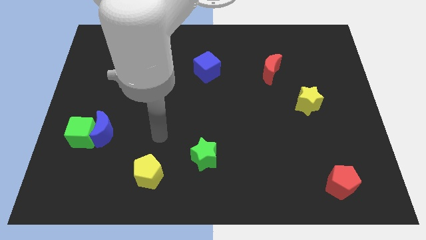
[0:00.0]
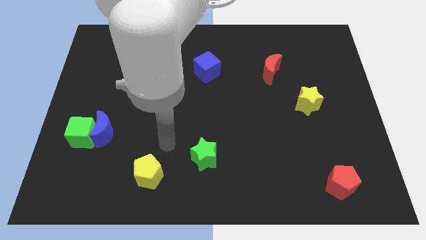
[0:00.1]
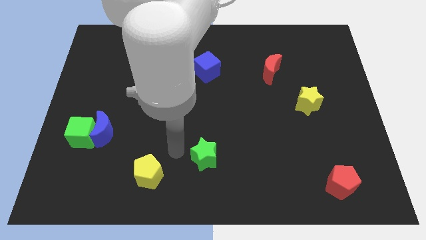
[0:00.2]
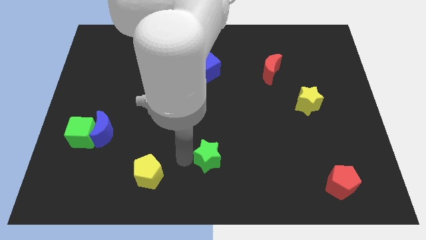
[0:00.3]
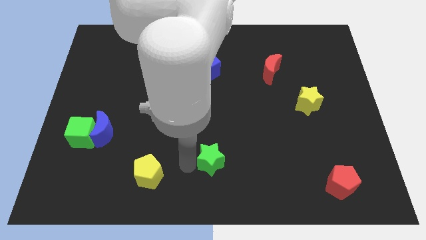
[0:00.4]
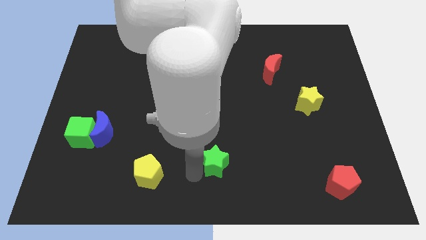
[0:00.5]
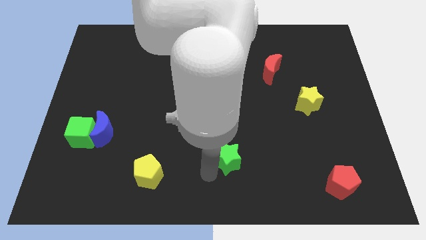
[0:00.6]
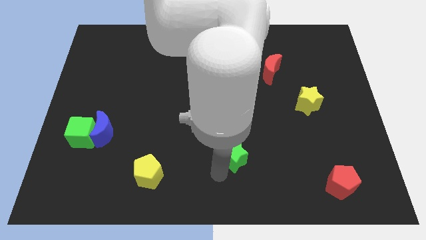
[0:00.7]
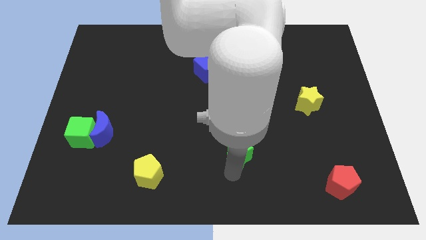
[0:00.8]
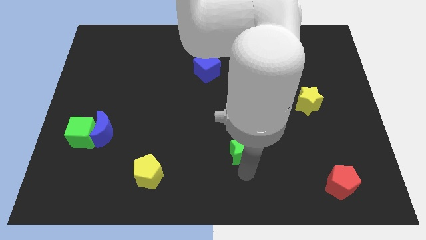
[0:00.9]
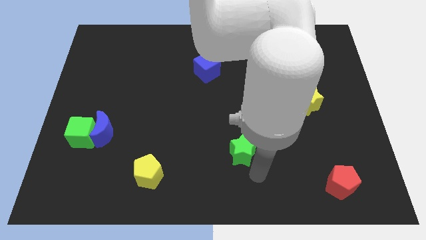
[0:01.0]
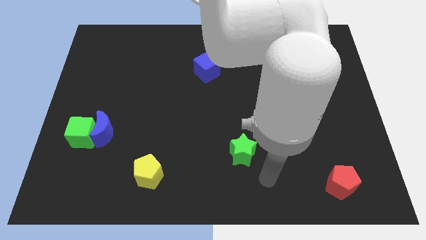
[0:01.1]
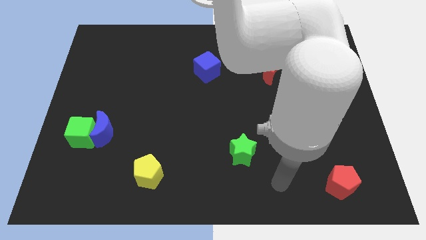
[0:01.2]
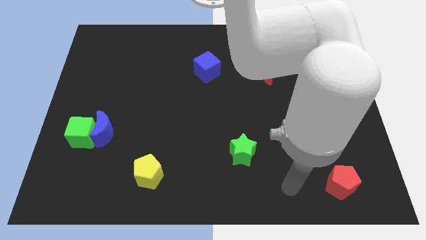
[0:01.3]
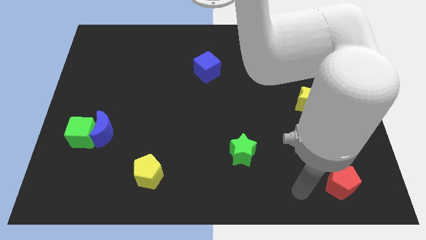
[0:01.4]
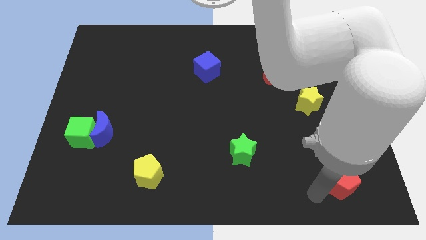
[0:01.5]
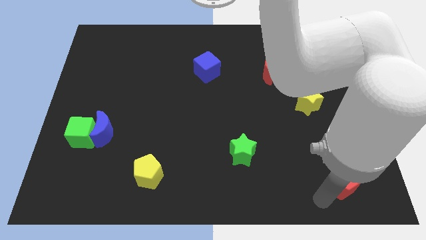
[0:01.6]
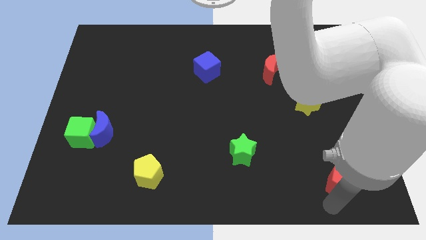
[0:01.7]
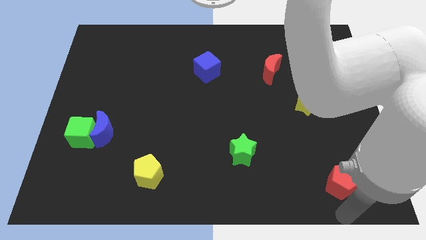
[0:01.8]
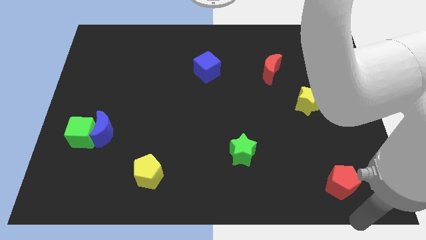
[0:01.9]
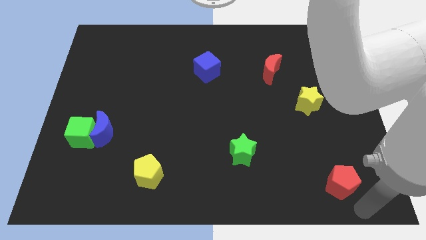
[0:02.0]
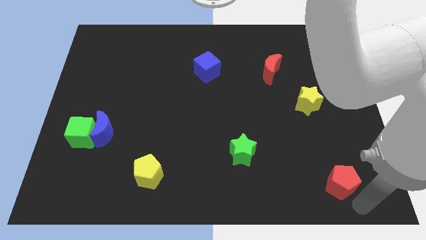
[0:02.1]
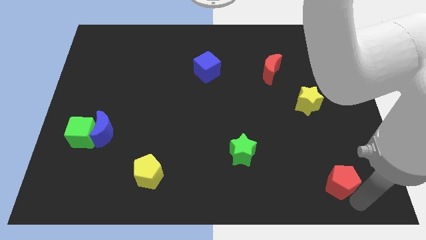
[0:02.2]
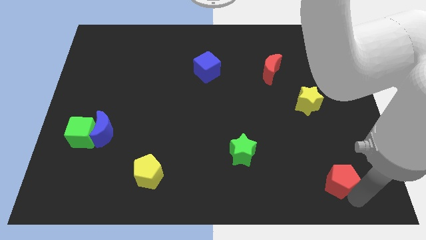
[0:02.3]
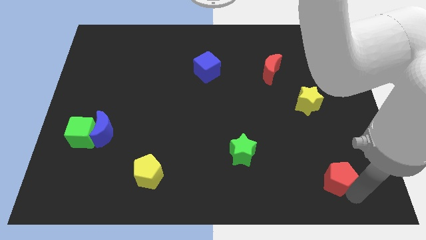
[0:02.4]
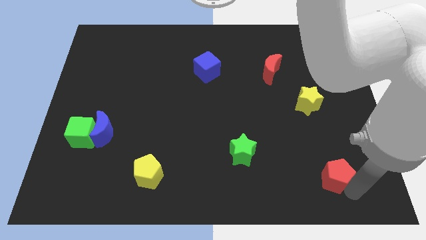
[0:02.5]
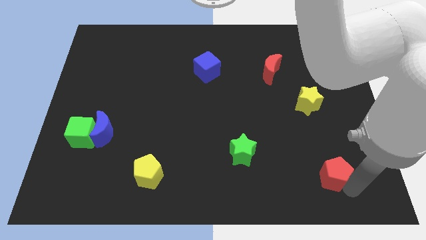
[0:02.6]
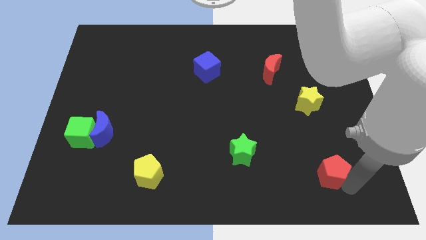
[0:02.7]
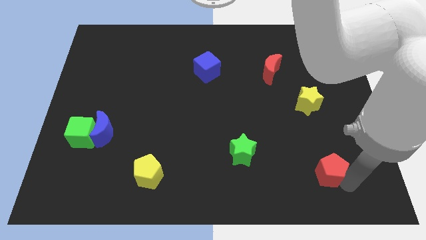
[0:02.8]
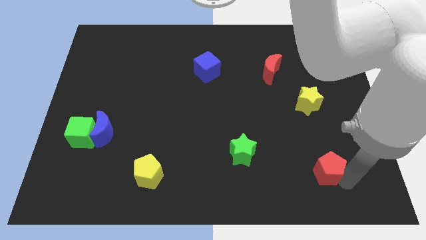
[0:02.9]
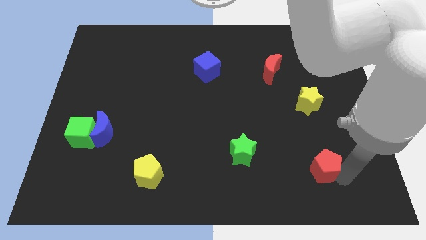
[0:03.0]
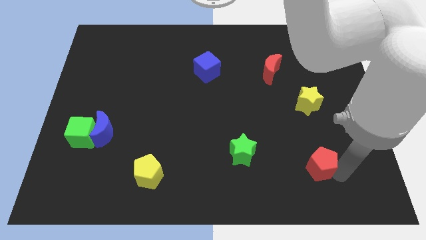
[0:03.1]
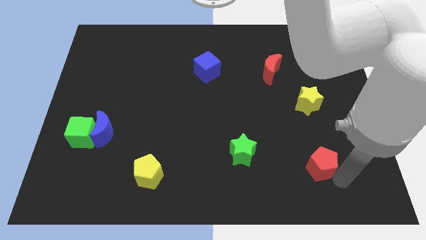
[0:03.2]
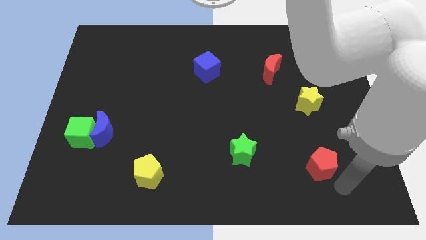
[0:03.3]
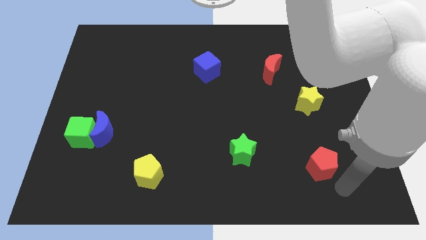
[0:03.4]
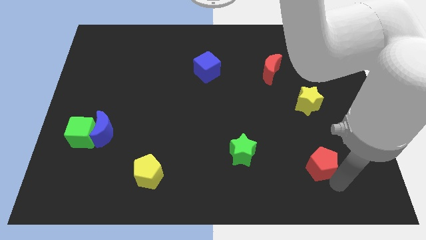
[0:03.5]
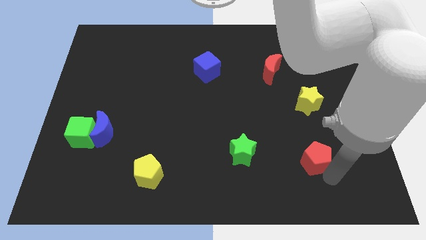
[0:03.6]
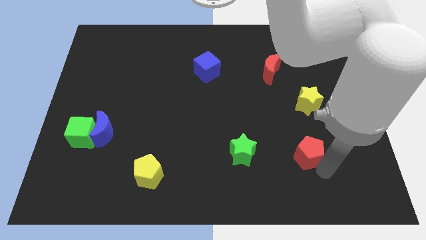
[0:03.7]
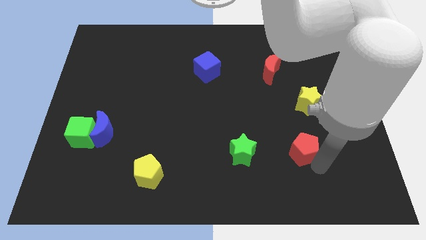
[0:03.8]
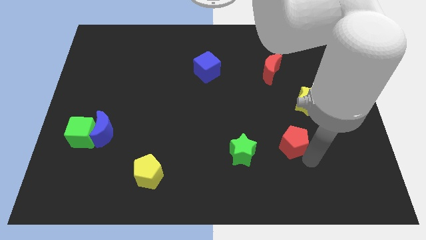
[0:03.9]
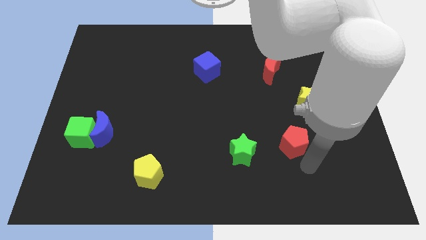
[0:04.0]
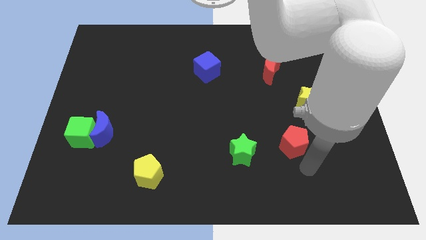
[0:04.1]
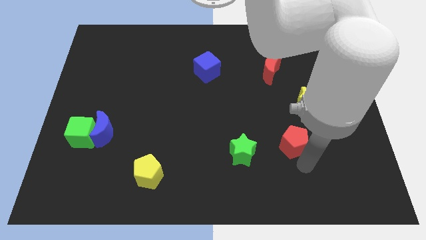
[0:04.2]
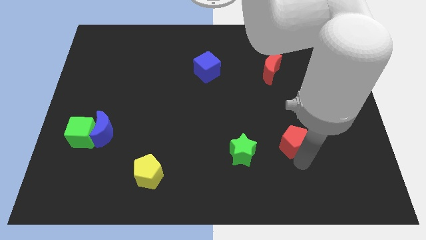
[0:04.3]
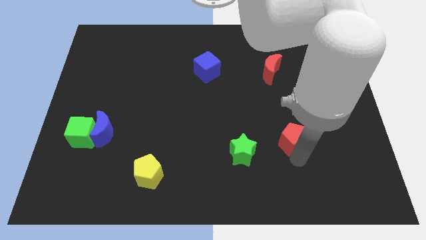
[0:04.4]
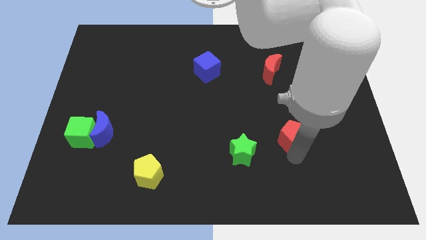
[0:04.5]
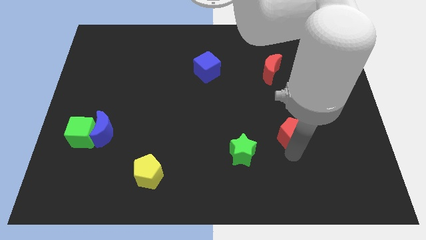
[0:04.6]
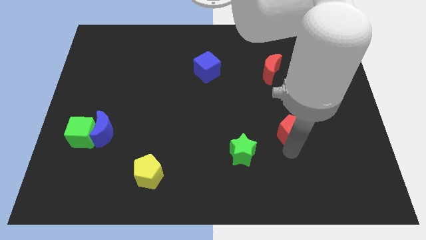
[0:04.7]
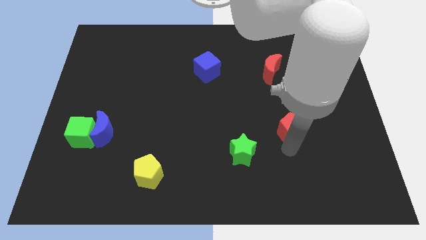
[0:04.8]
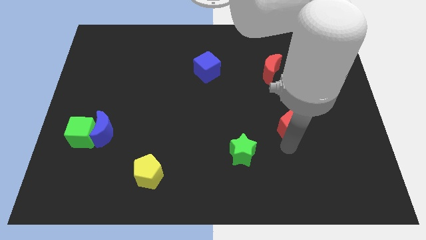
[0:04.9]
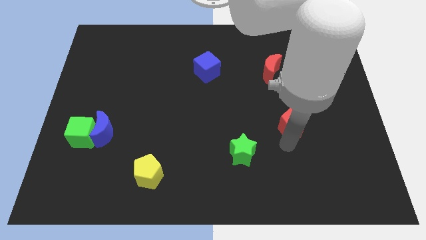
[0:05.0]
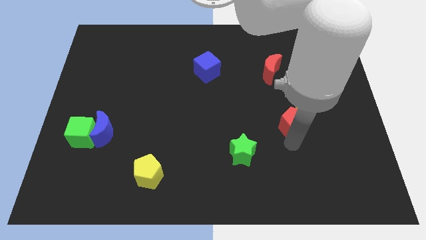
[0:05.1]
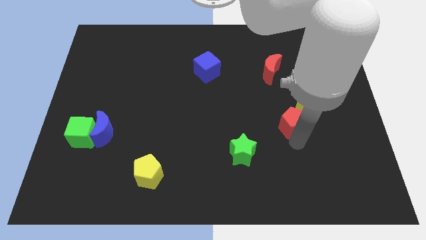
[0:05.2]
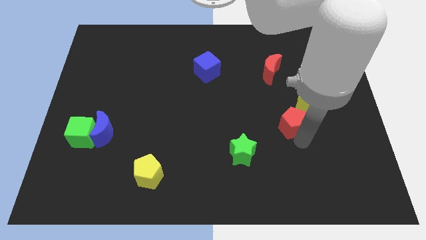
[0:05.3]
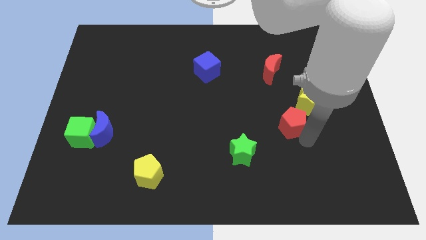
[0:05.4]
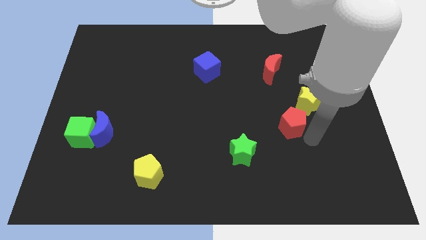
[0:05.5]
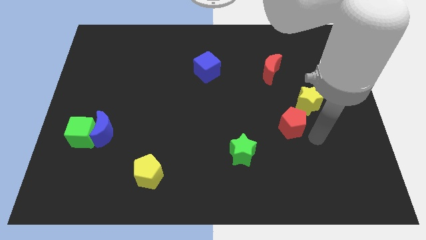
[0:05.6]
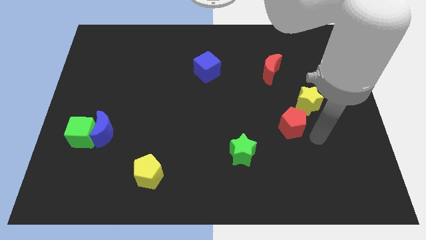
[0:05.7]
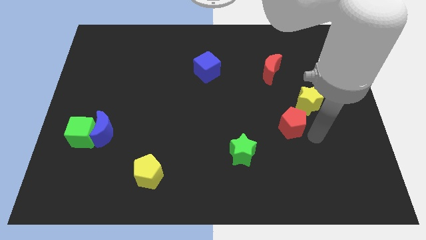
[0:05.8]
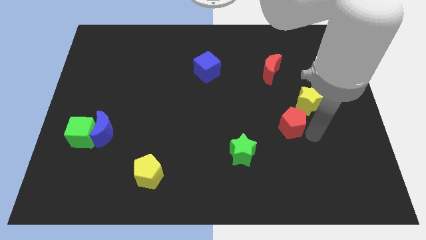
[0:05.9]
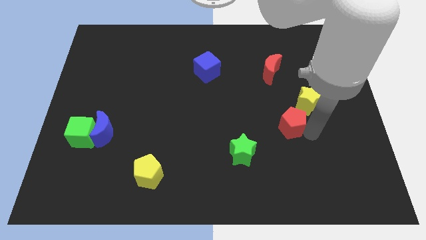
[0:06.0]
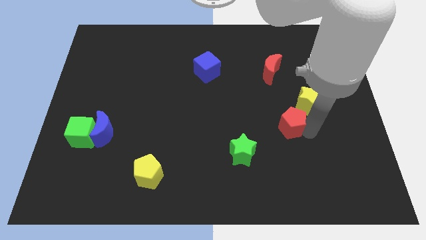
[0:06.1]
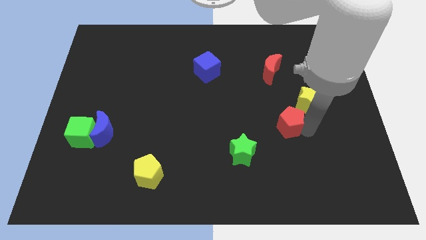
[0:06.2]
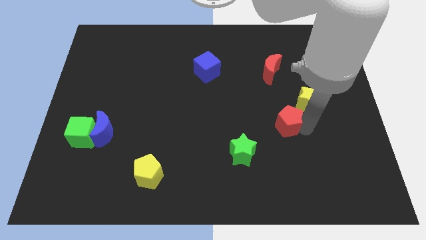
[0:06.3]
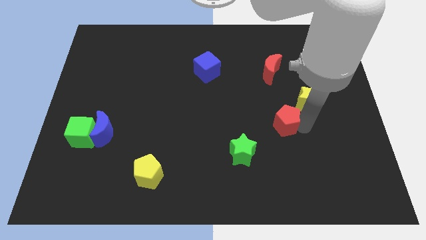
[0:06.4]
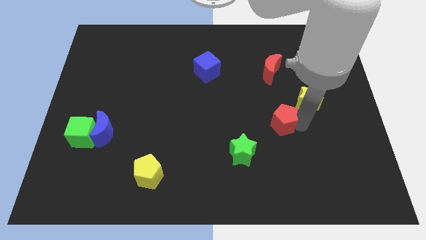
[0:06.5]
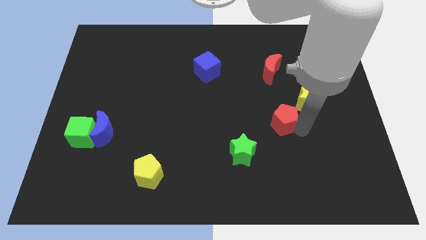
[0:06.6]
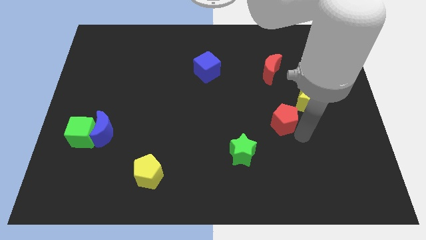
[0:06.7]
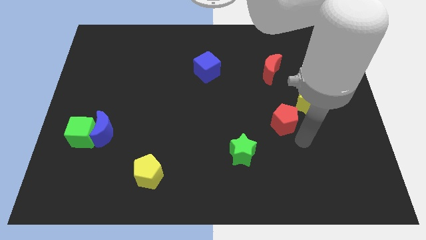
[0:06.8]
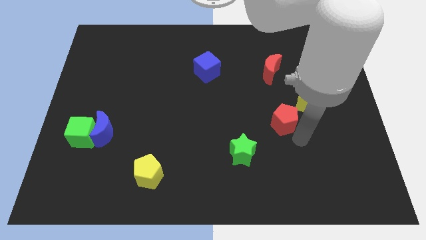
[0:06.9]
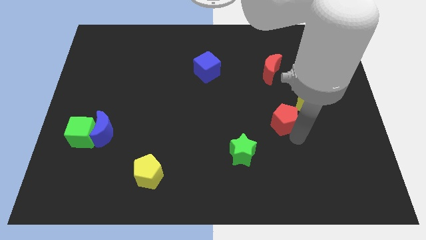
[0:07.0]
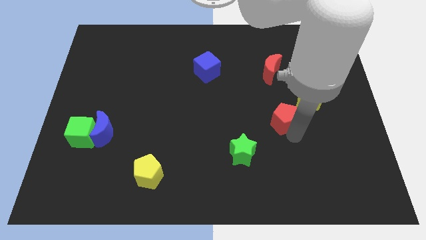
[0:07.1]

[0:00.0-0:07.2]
slide the red pentagon to the left of the yellow star
